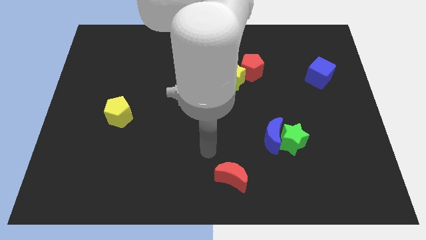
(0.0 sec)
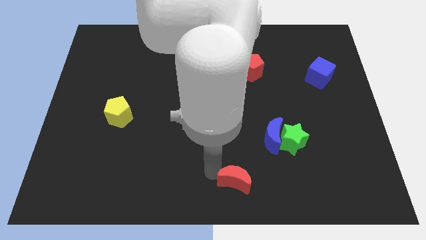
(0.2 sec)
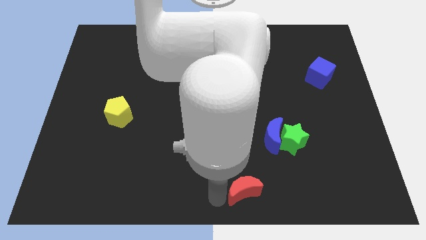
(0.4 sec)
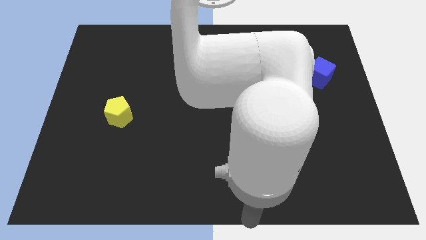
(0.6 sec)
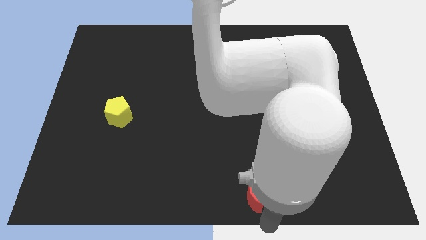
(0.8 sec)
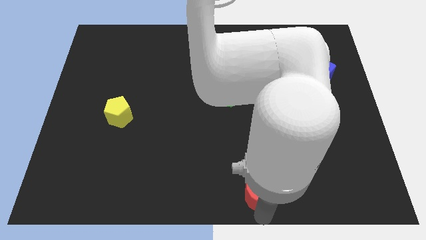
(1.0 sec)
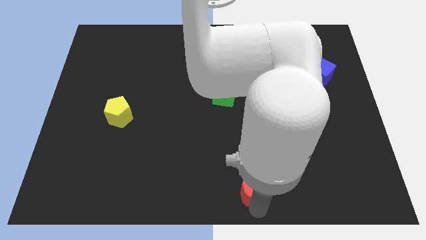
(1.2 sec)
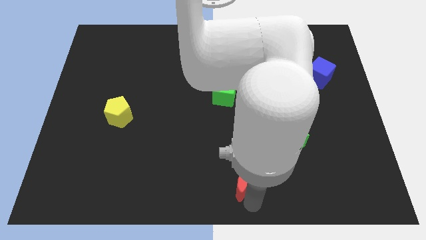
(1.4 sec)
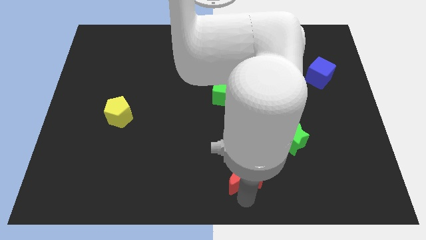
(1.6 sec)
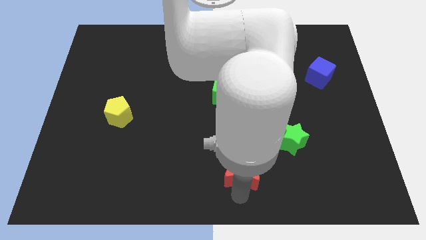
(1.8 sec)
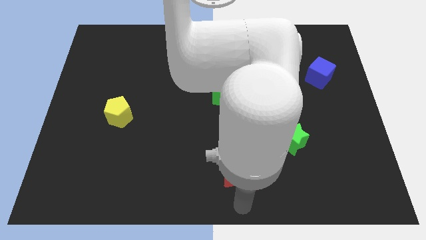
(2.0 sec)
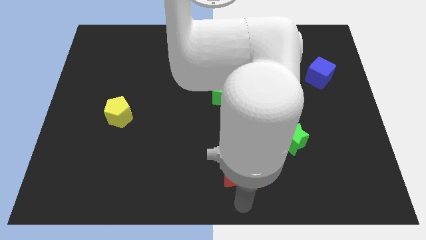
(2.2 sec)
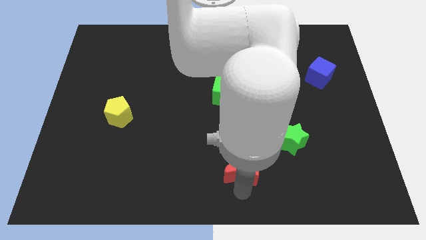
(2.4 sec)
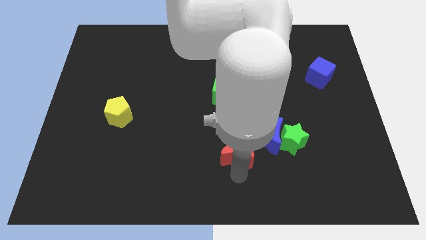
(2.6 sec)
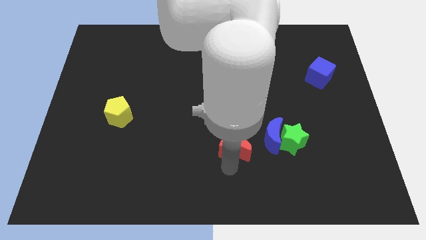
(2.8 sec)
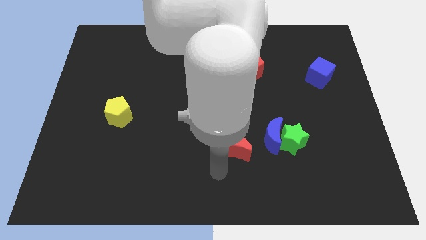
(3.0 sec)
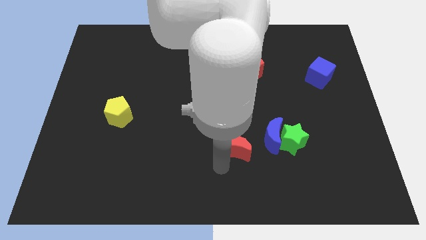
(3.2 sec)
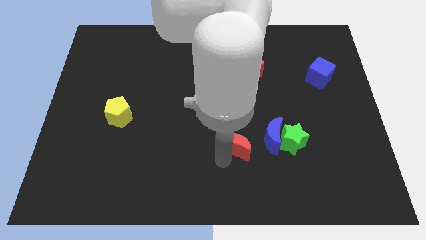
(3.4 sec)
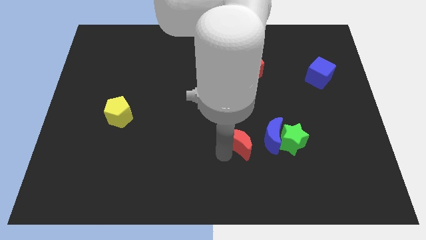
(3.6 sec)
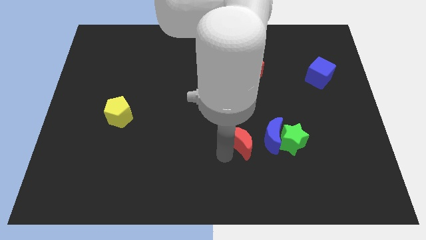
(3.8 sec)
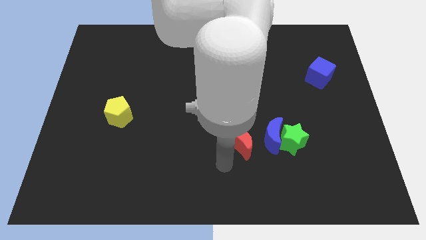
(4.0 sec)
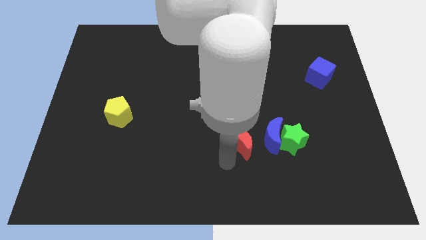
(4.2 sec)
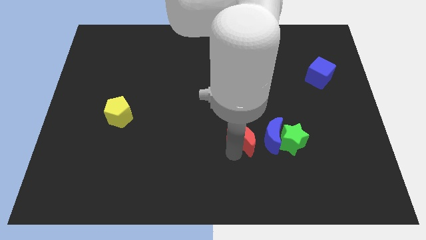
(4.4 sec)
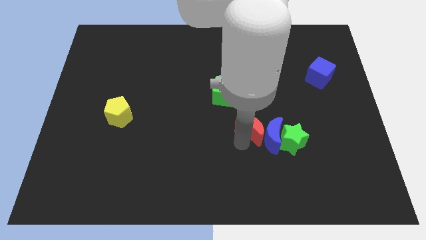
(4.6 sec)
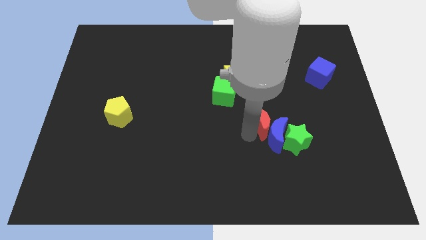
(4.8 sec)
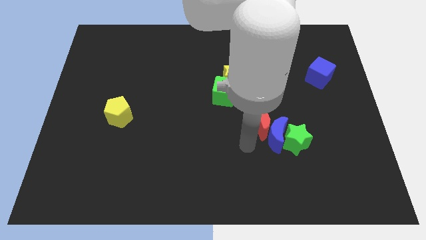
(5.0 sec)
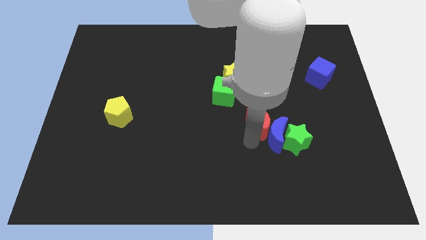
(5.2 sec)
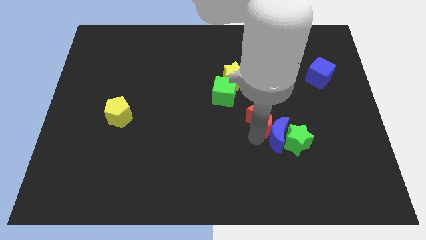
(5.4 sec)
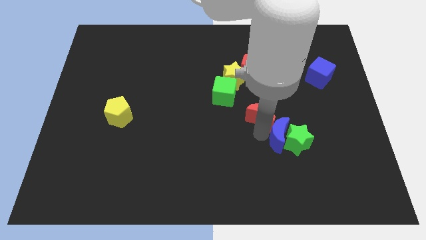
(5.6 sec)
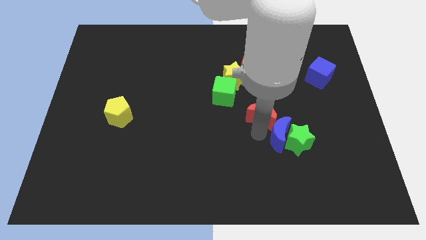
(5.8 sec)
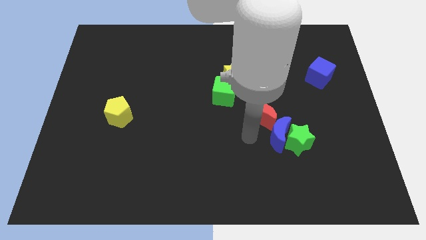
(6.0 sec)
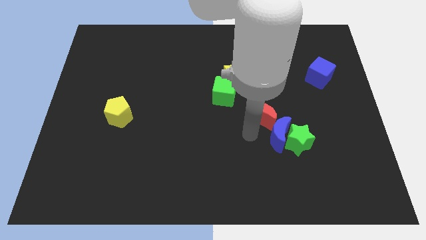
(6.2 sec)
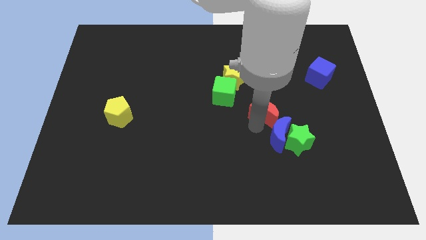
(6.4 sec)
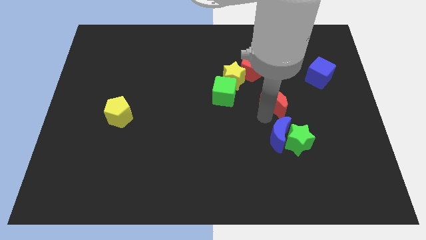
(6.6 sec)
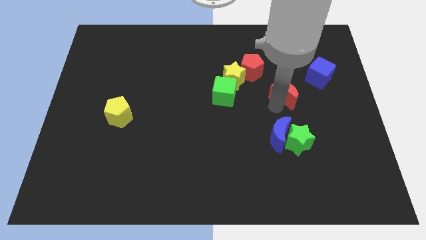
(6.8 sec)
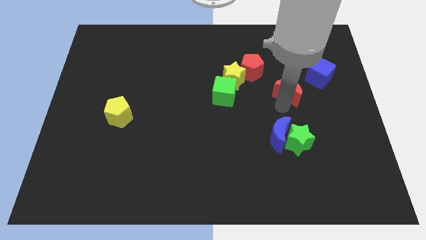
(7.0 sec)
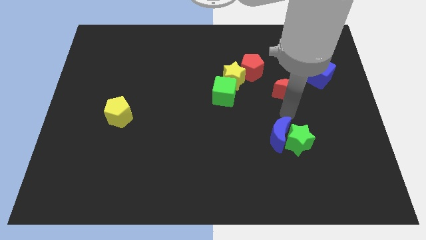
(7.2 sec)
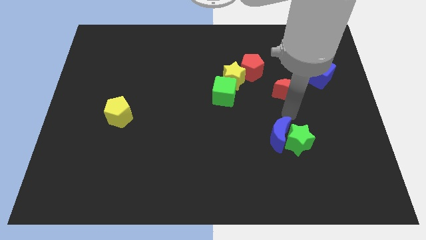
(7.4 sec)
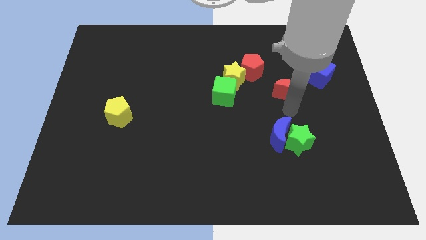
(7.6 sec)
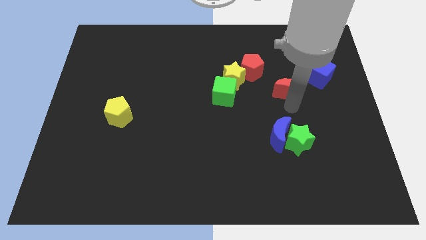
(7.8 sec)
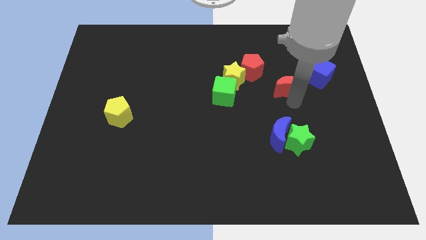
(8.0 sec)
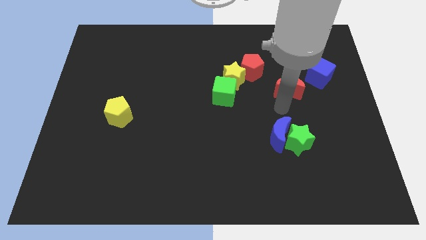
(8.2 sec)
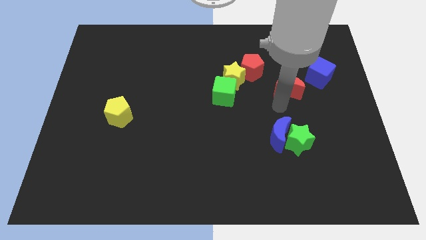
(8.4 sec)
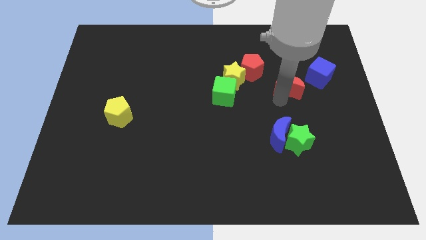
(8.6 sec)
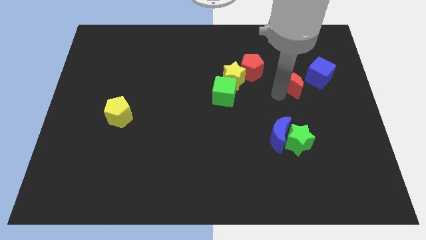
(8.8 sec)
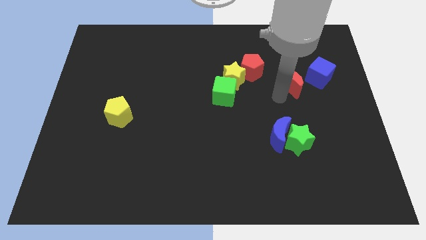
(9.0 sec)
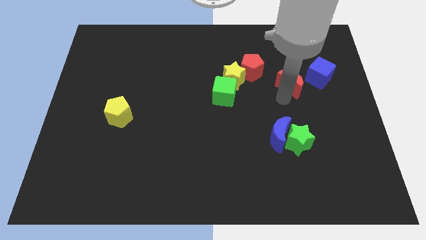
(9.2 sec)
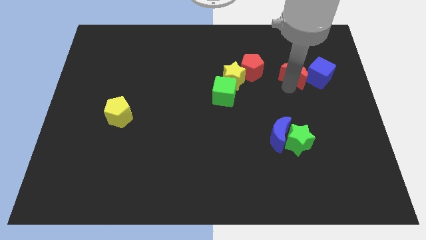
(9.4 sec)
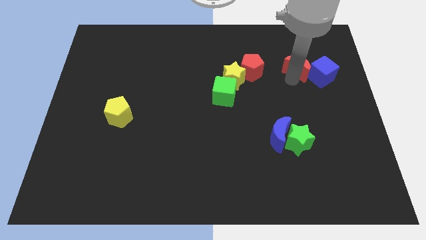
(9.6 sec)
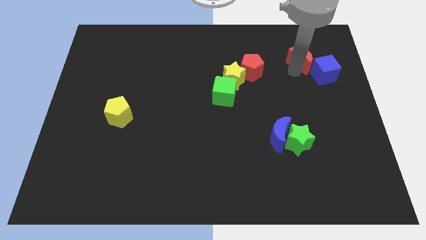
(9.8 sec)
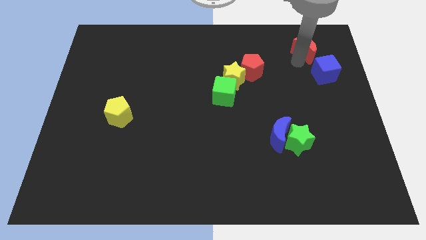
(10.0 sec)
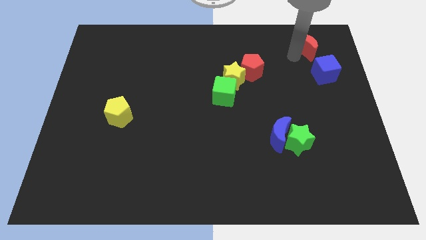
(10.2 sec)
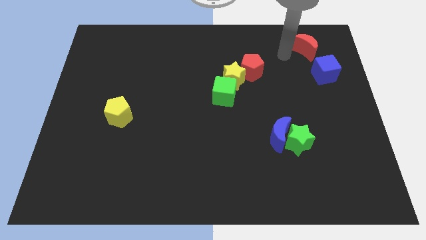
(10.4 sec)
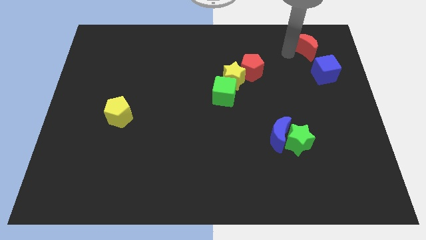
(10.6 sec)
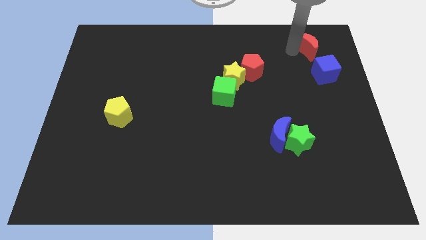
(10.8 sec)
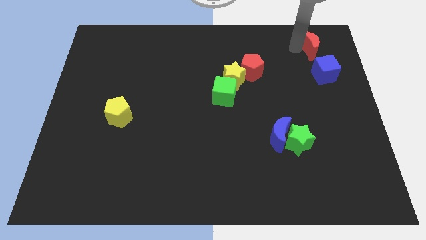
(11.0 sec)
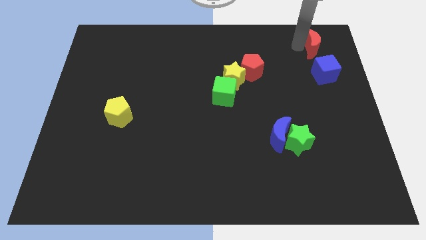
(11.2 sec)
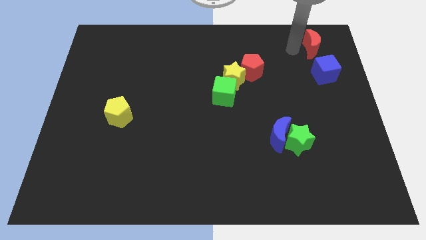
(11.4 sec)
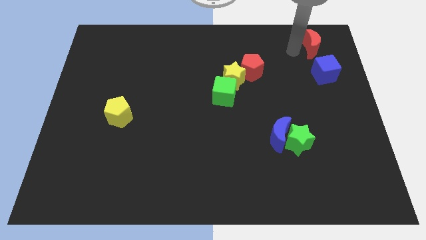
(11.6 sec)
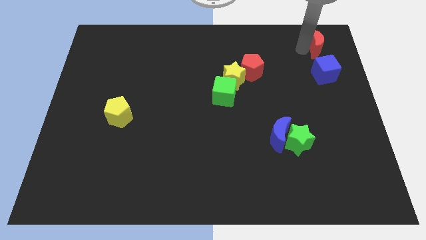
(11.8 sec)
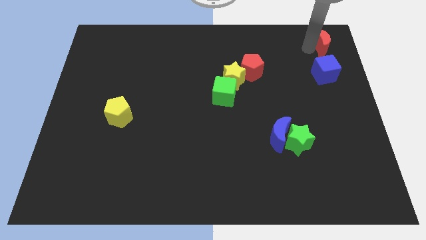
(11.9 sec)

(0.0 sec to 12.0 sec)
push the red moon to the upper right corner

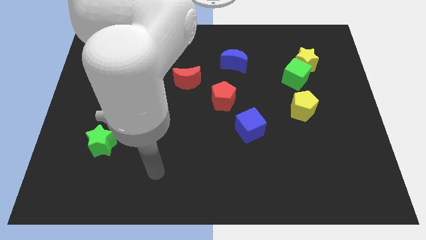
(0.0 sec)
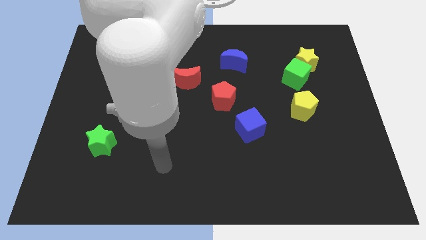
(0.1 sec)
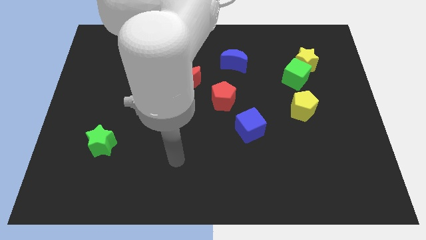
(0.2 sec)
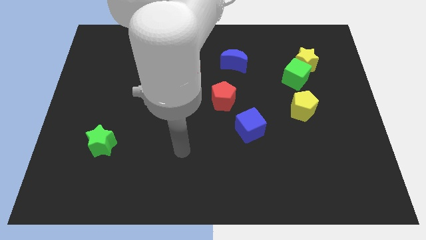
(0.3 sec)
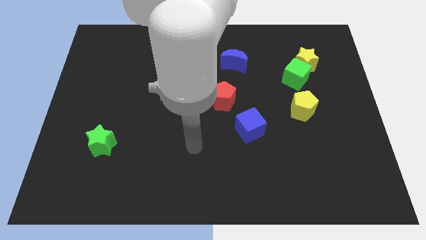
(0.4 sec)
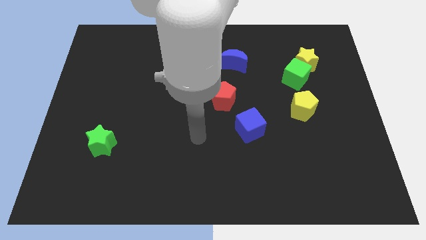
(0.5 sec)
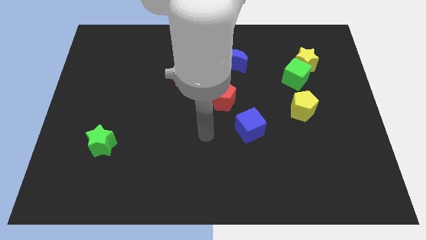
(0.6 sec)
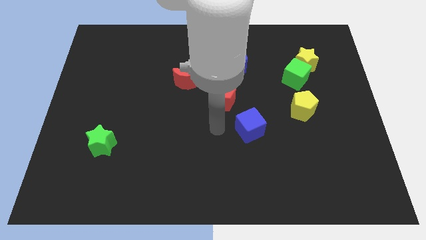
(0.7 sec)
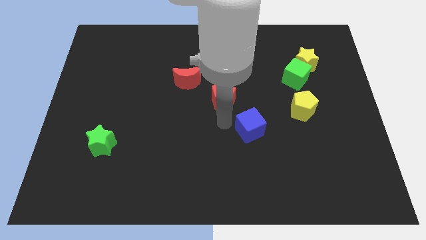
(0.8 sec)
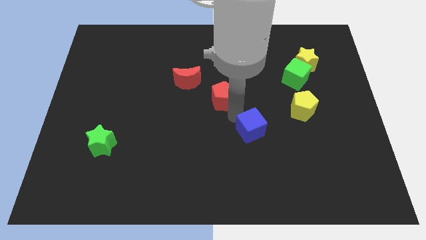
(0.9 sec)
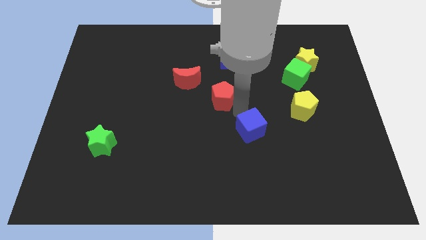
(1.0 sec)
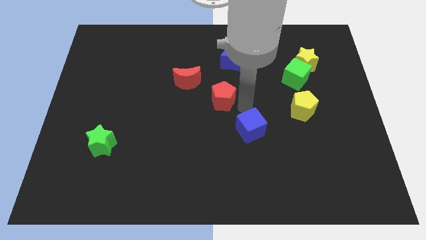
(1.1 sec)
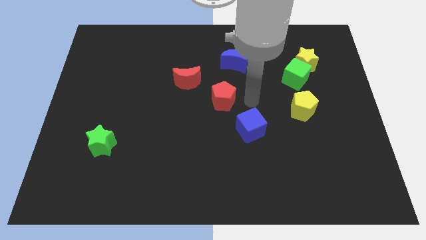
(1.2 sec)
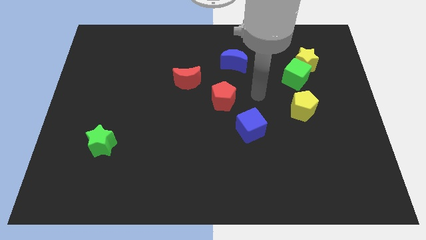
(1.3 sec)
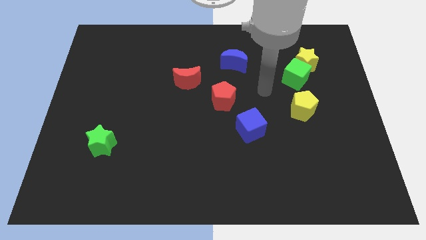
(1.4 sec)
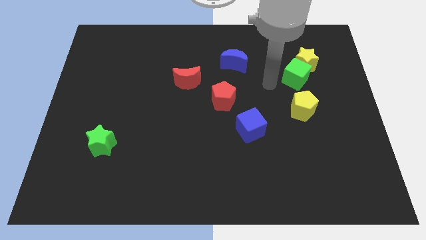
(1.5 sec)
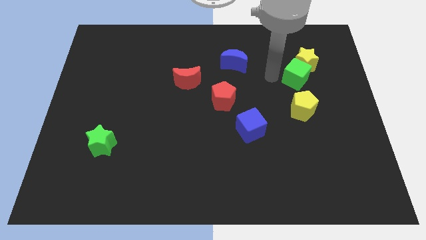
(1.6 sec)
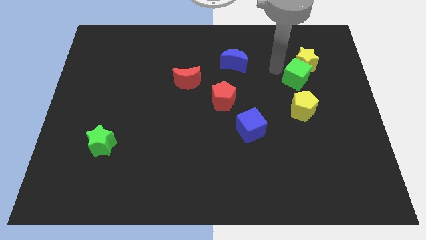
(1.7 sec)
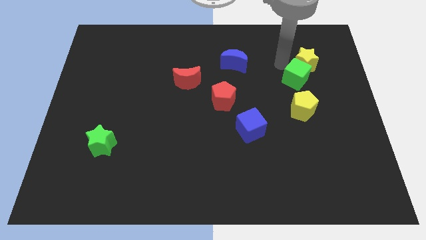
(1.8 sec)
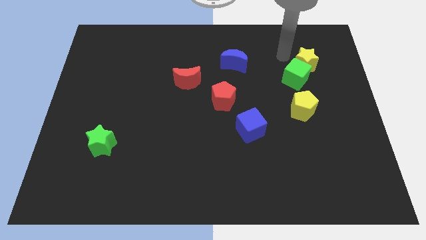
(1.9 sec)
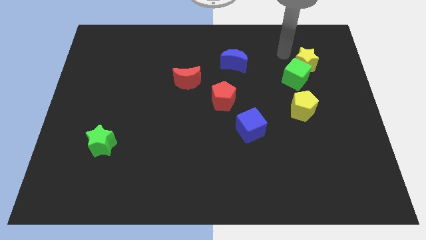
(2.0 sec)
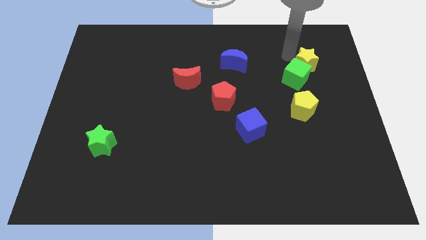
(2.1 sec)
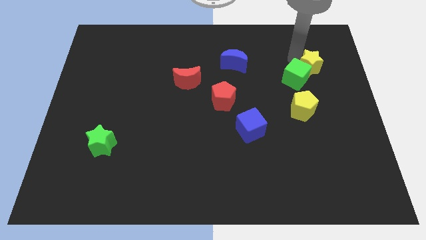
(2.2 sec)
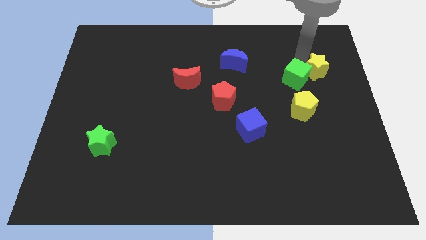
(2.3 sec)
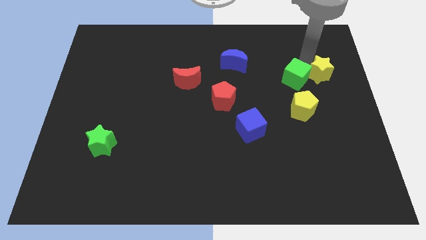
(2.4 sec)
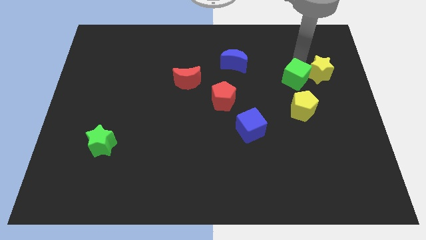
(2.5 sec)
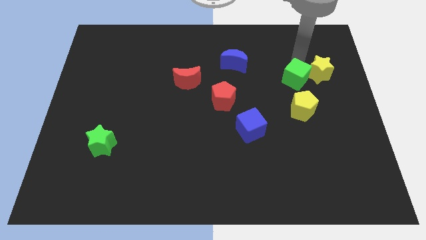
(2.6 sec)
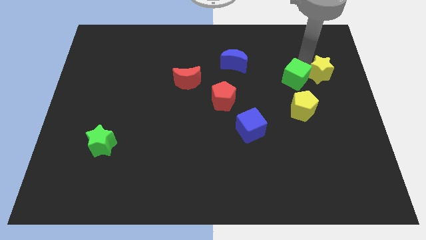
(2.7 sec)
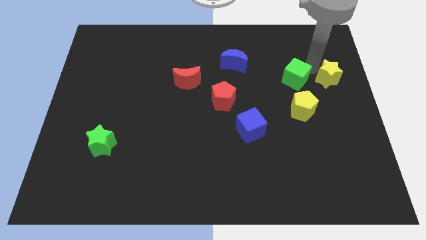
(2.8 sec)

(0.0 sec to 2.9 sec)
push the yellow star to the center right
